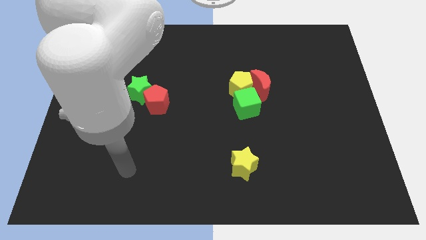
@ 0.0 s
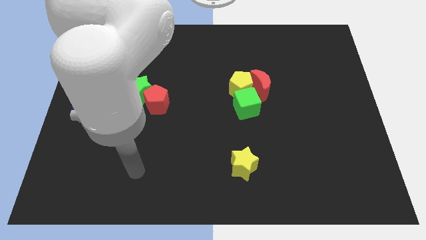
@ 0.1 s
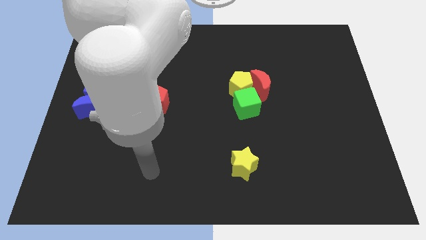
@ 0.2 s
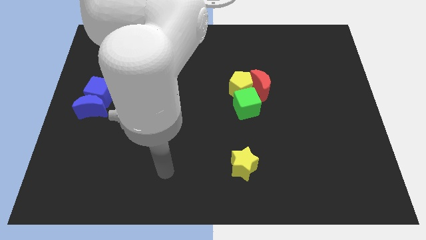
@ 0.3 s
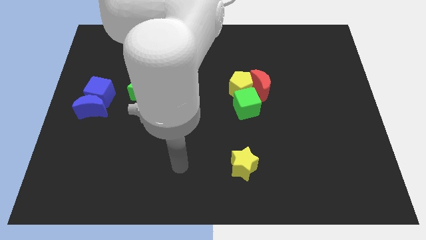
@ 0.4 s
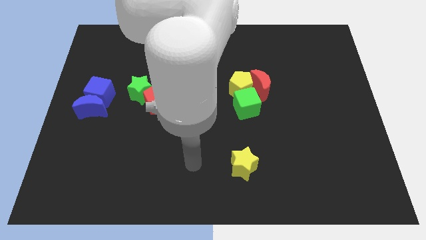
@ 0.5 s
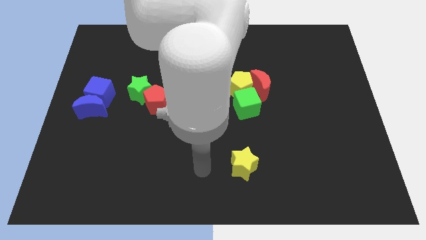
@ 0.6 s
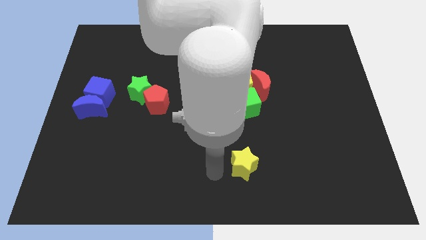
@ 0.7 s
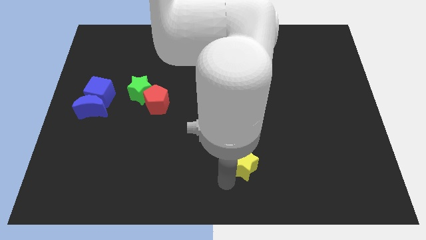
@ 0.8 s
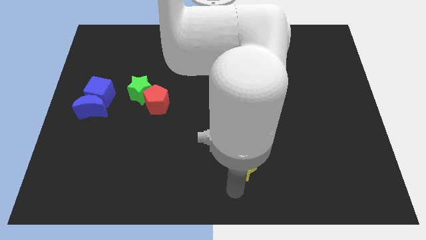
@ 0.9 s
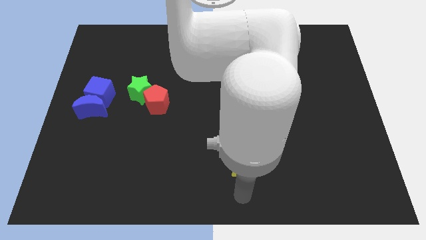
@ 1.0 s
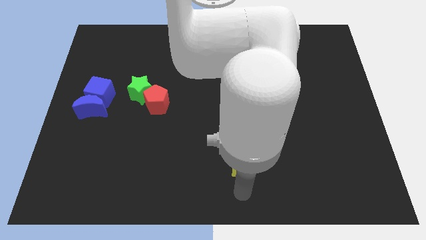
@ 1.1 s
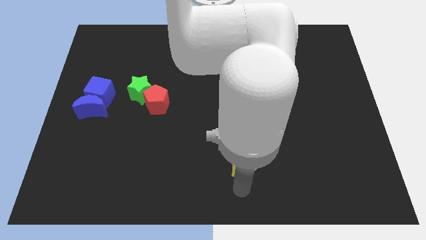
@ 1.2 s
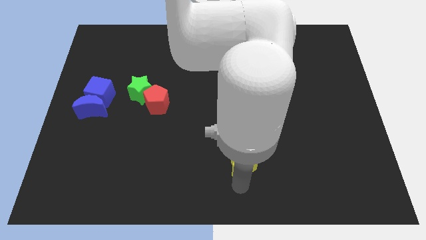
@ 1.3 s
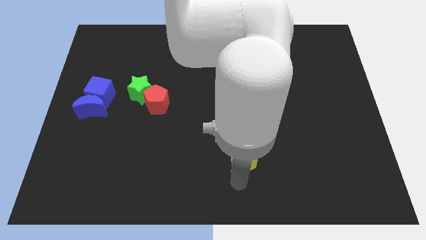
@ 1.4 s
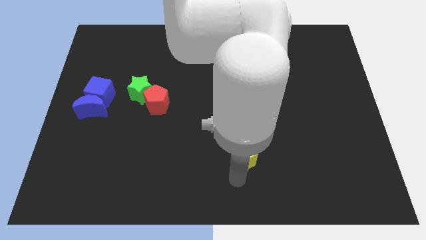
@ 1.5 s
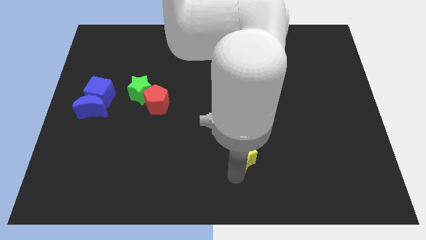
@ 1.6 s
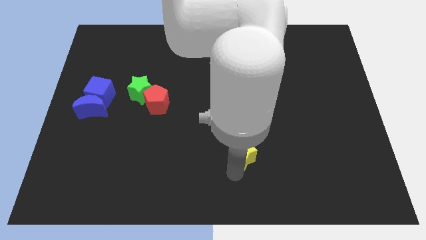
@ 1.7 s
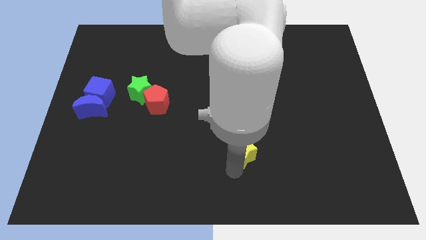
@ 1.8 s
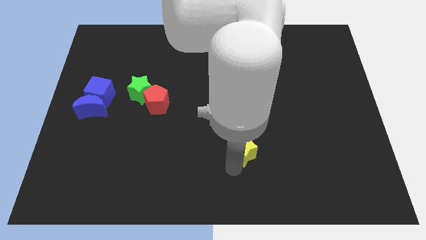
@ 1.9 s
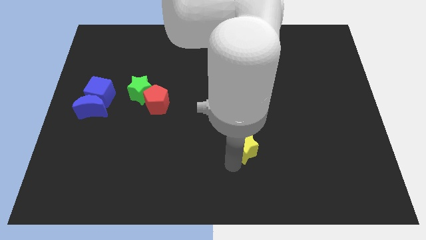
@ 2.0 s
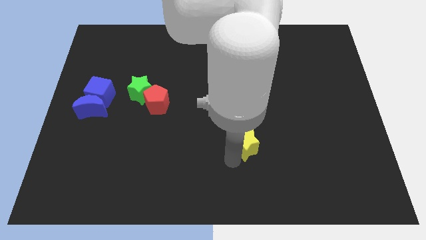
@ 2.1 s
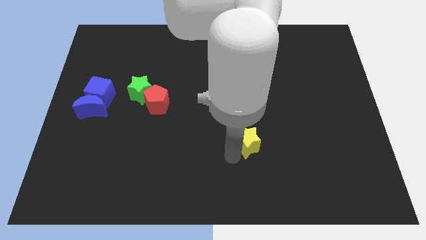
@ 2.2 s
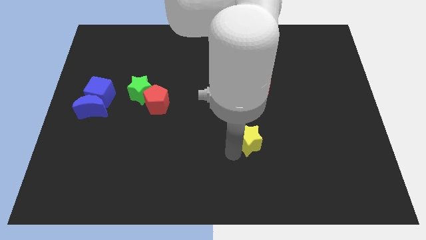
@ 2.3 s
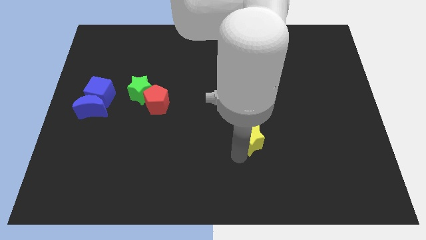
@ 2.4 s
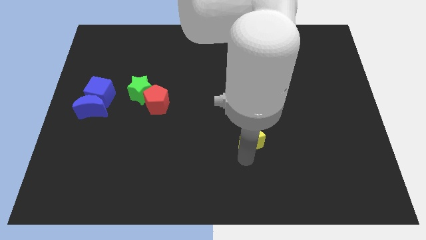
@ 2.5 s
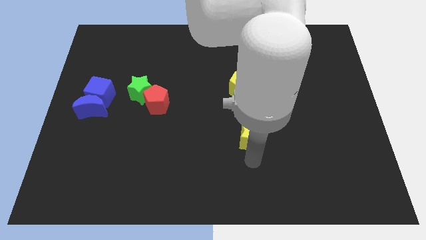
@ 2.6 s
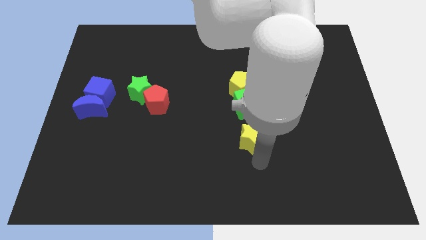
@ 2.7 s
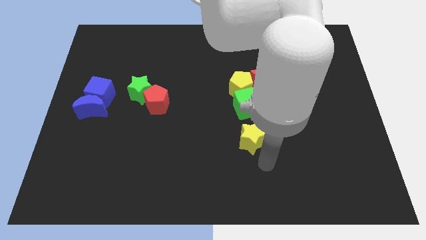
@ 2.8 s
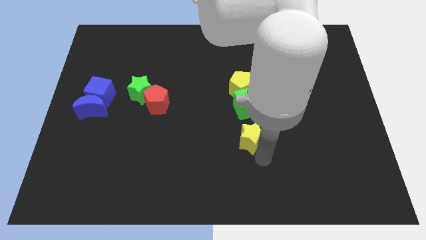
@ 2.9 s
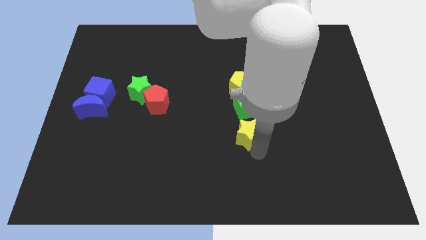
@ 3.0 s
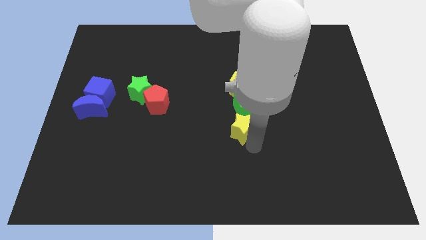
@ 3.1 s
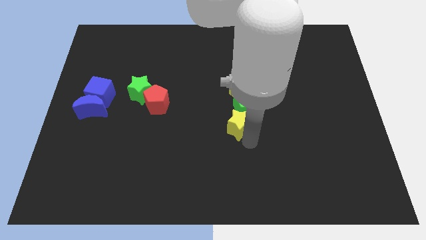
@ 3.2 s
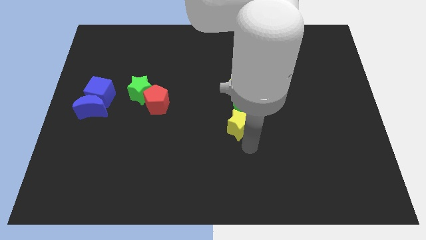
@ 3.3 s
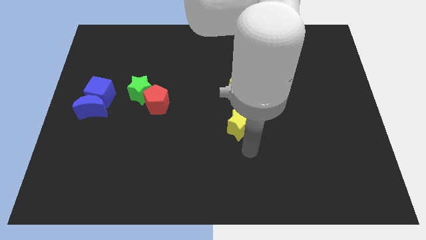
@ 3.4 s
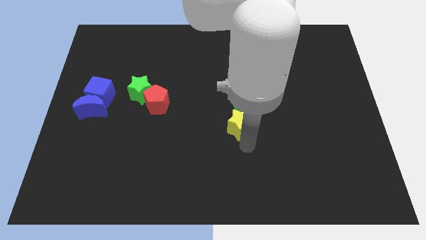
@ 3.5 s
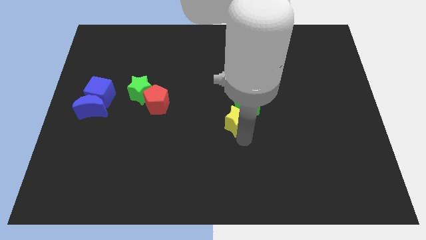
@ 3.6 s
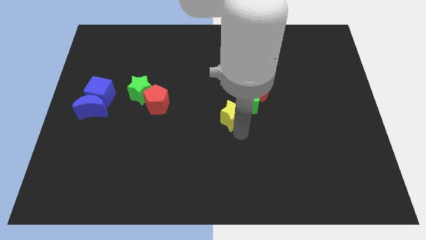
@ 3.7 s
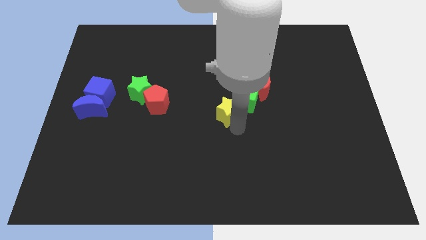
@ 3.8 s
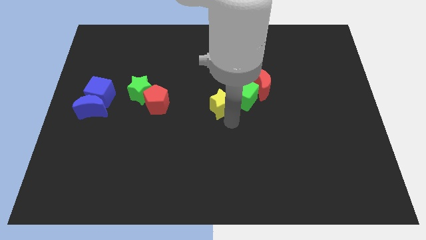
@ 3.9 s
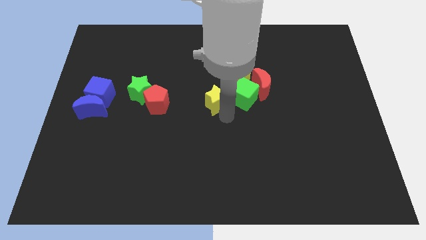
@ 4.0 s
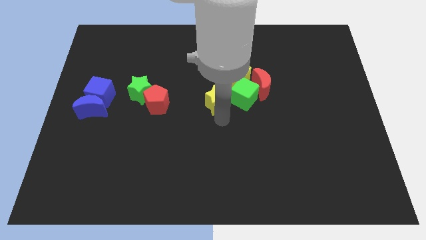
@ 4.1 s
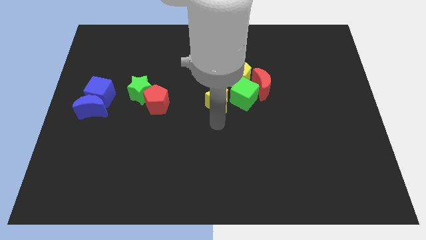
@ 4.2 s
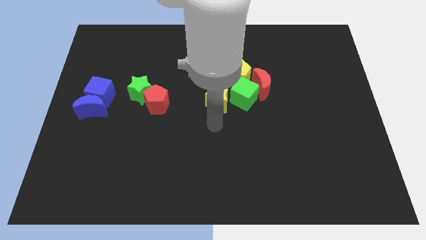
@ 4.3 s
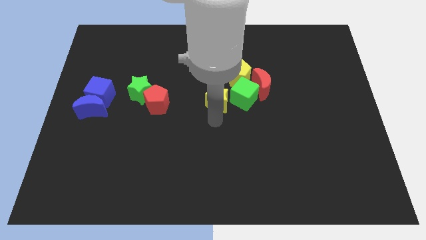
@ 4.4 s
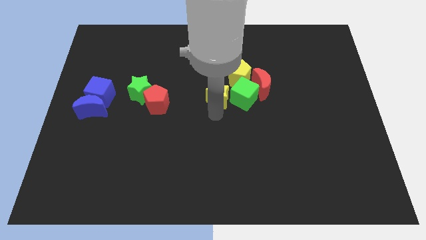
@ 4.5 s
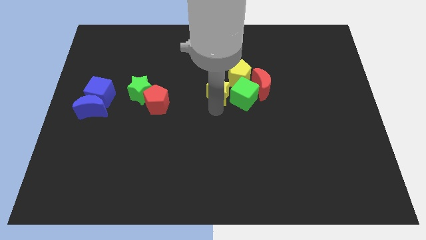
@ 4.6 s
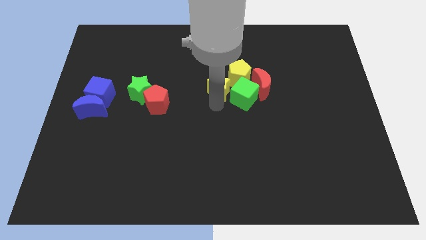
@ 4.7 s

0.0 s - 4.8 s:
push the yellow star upwards

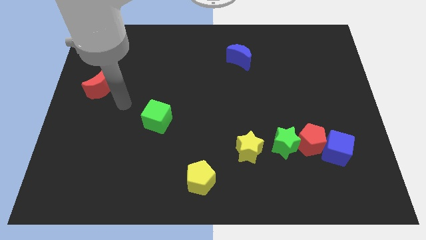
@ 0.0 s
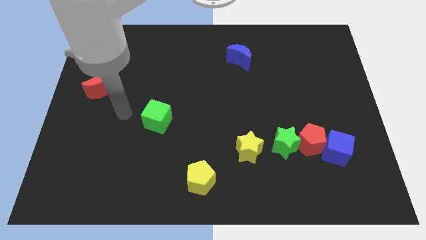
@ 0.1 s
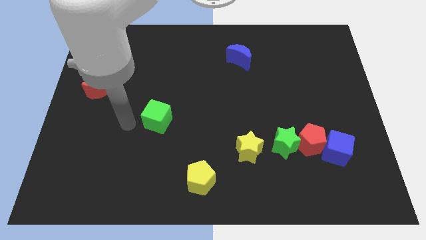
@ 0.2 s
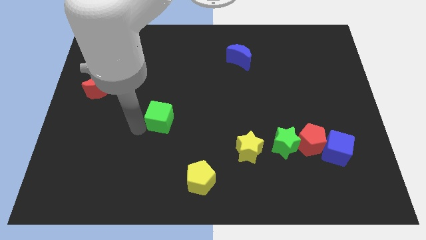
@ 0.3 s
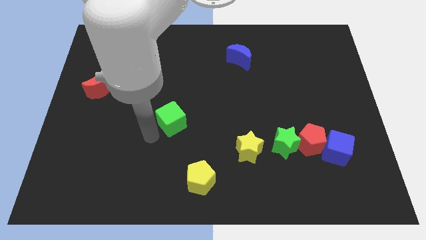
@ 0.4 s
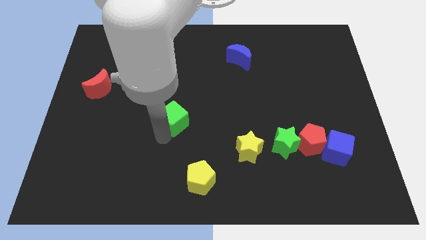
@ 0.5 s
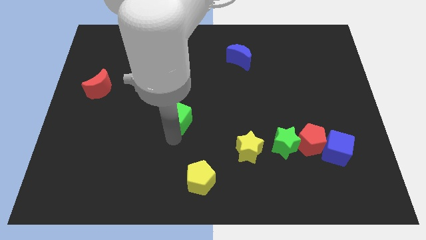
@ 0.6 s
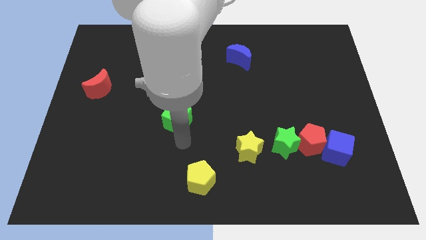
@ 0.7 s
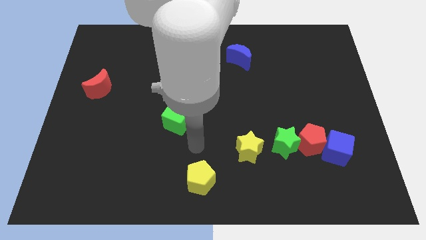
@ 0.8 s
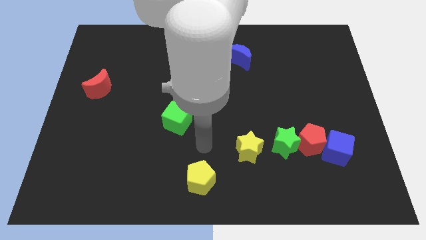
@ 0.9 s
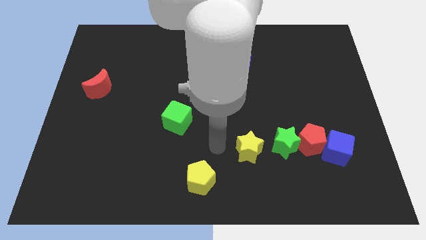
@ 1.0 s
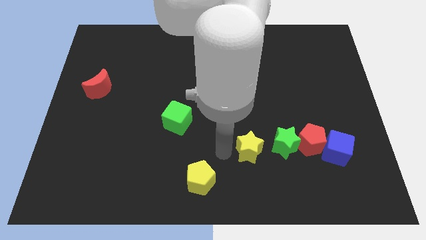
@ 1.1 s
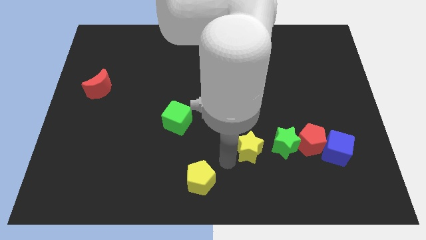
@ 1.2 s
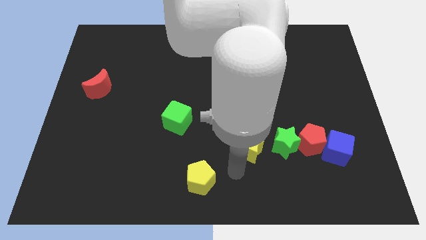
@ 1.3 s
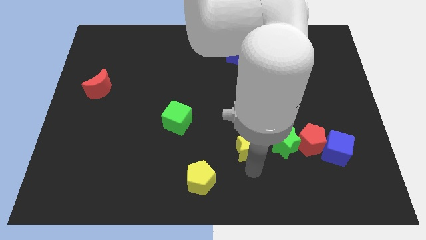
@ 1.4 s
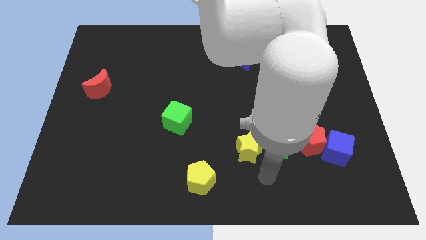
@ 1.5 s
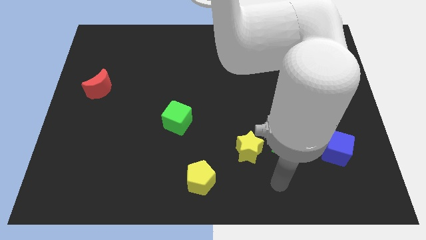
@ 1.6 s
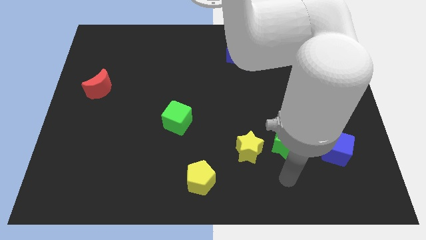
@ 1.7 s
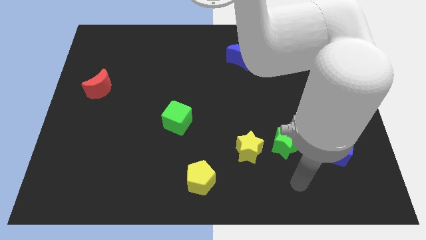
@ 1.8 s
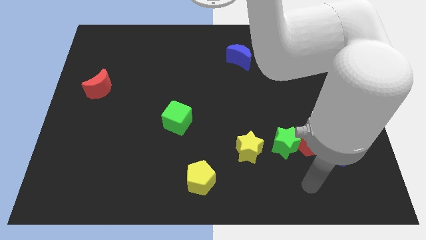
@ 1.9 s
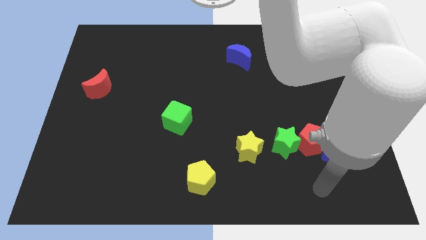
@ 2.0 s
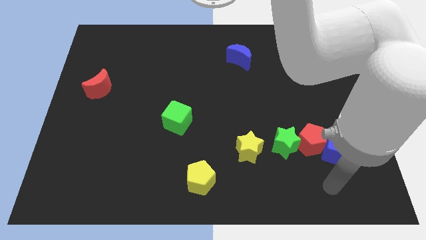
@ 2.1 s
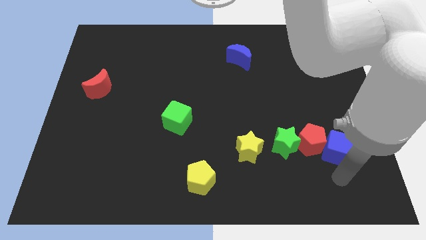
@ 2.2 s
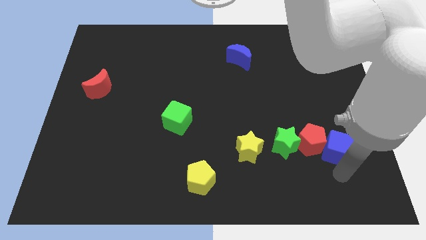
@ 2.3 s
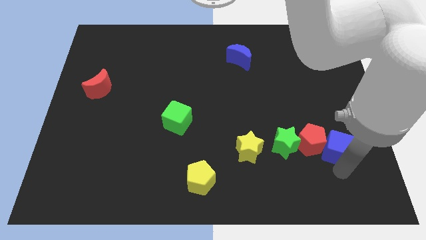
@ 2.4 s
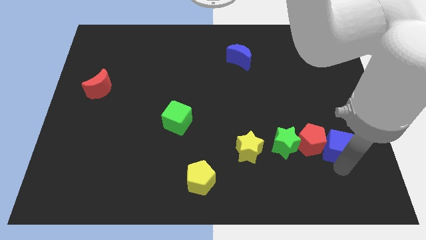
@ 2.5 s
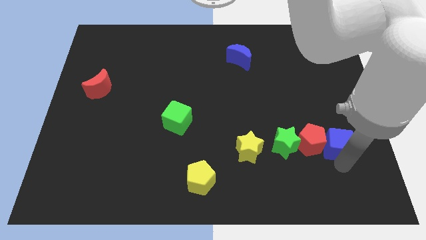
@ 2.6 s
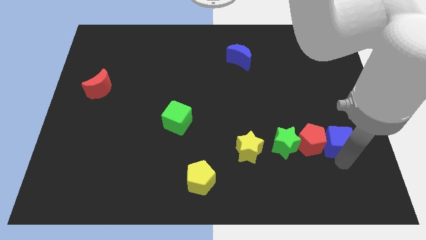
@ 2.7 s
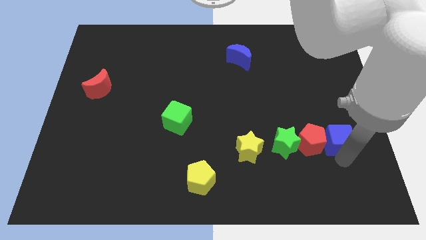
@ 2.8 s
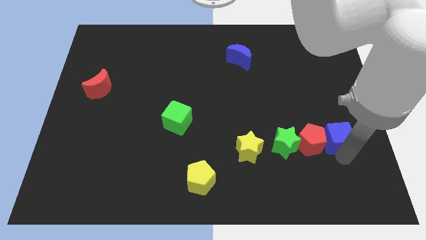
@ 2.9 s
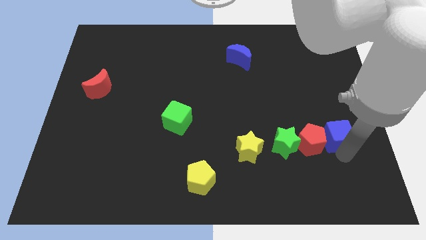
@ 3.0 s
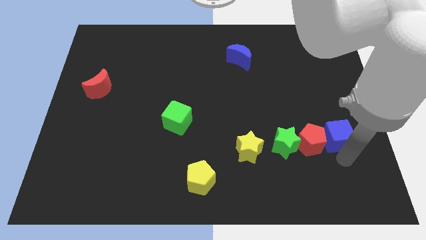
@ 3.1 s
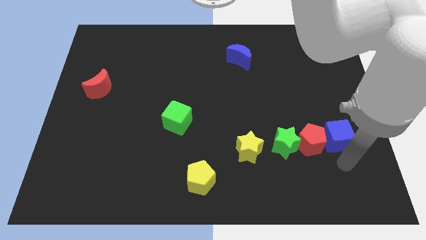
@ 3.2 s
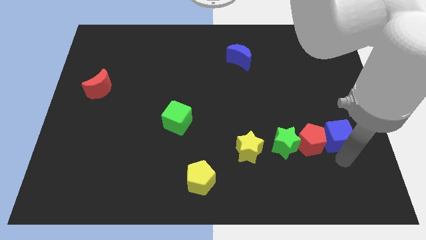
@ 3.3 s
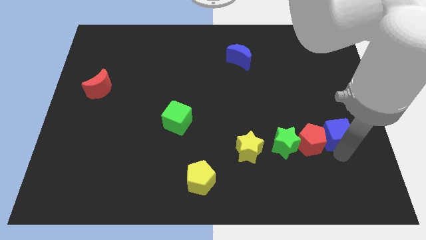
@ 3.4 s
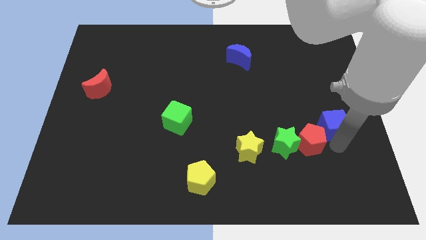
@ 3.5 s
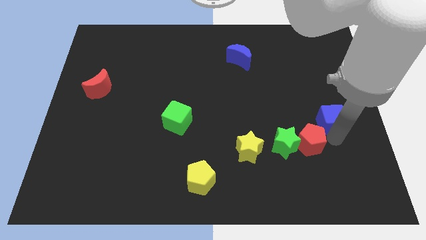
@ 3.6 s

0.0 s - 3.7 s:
push the blue cube up somewhat
